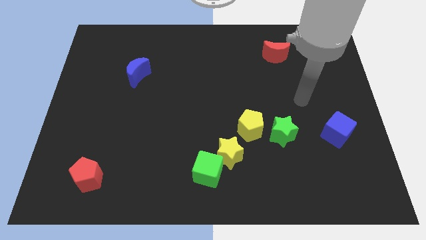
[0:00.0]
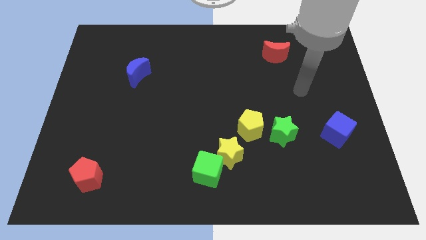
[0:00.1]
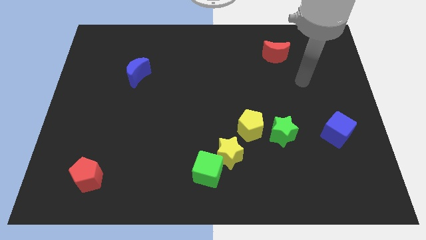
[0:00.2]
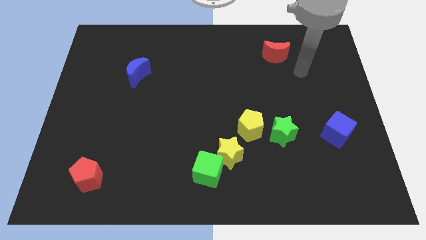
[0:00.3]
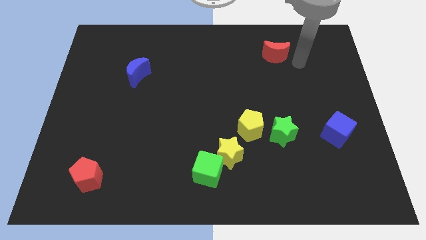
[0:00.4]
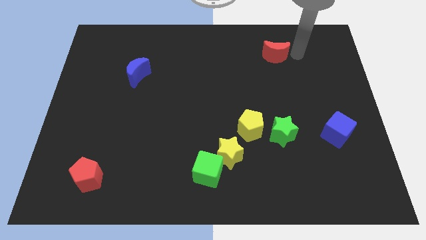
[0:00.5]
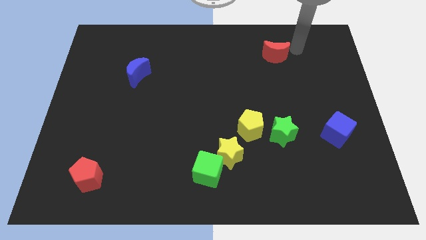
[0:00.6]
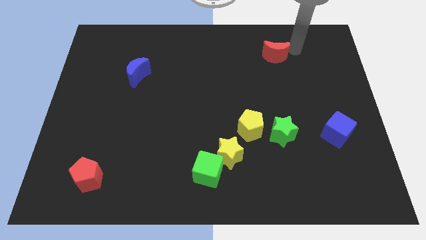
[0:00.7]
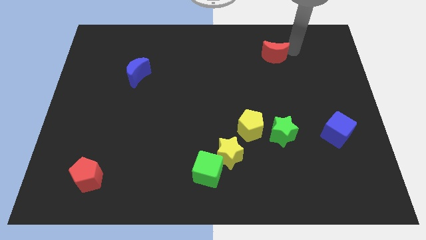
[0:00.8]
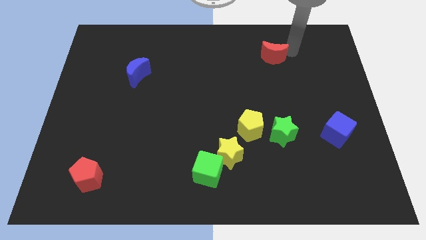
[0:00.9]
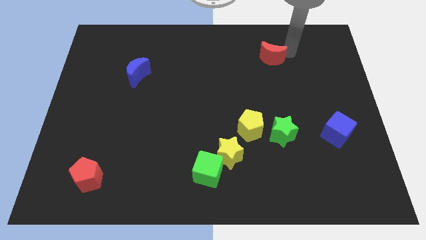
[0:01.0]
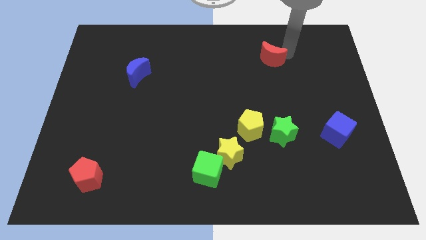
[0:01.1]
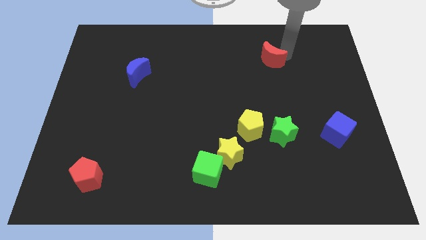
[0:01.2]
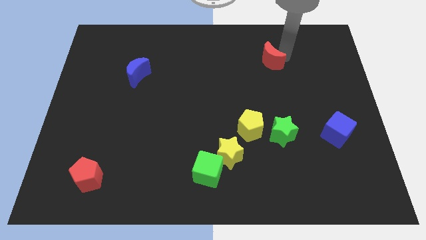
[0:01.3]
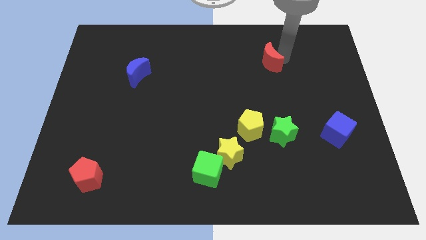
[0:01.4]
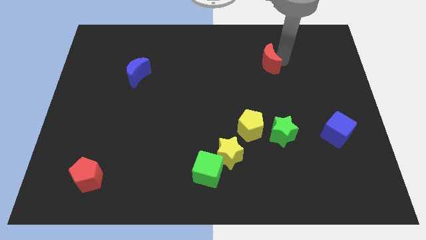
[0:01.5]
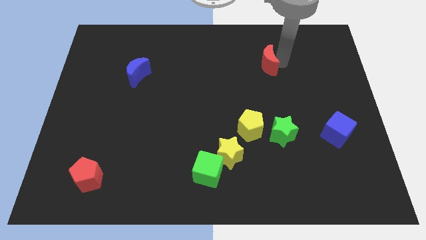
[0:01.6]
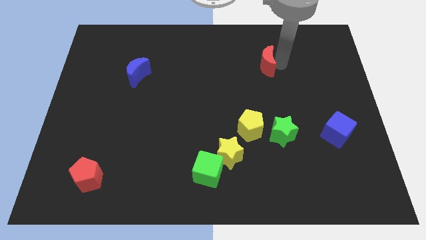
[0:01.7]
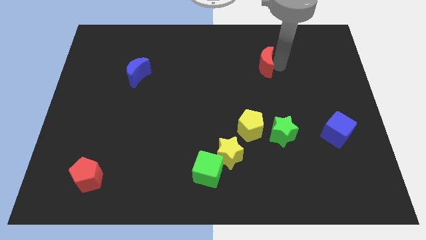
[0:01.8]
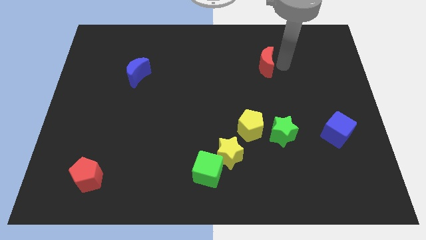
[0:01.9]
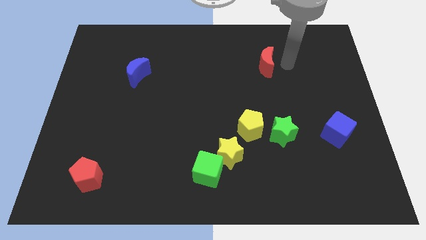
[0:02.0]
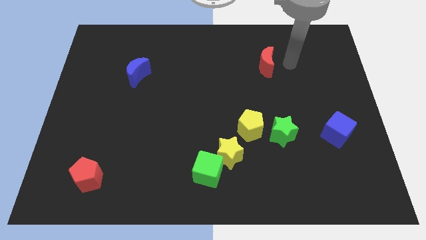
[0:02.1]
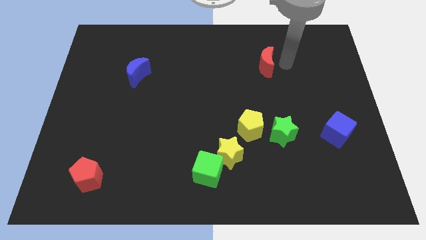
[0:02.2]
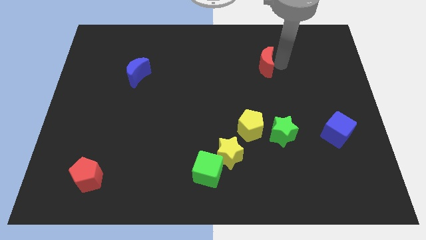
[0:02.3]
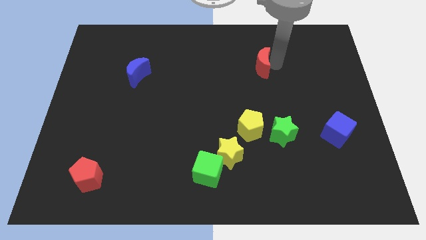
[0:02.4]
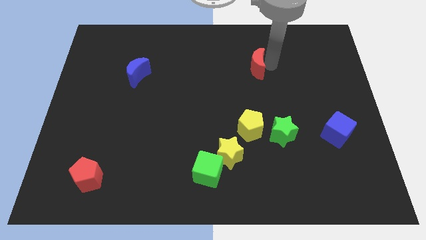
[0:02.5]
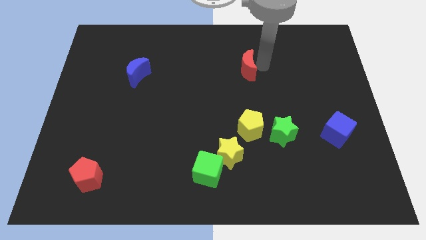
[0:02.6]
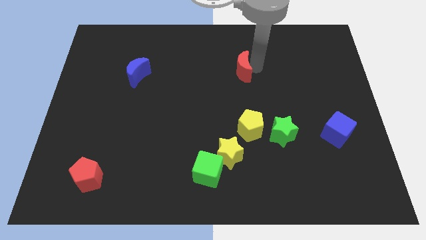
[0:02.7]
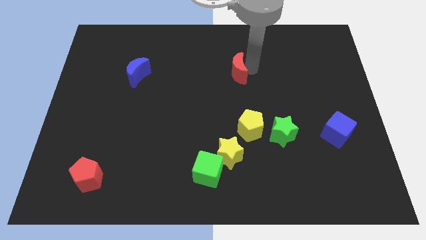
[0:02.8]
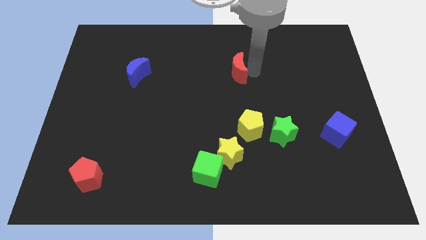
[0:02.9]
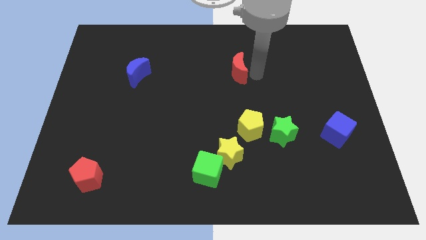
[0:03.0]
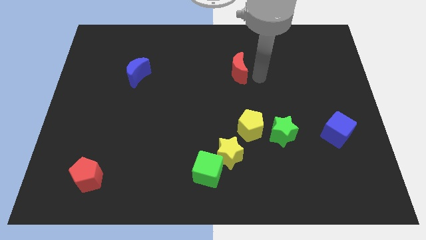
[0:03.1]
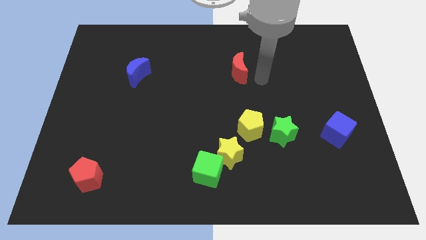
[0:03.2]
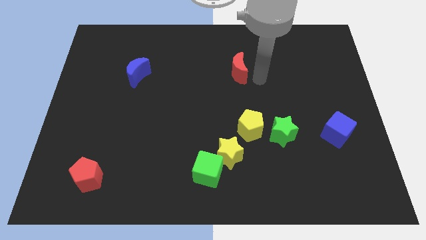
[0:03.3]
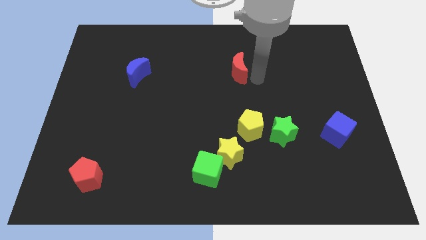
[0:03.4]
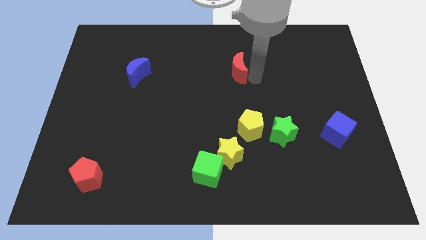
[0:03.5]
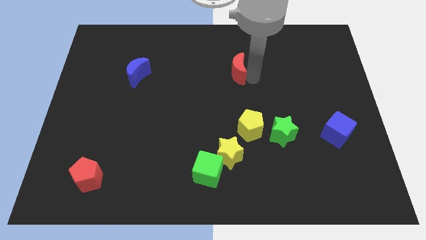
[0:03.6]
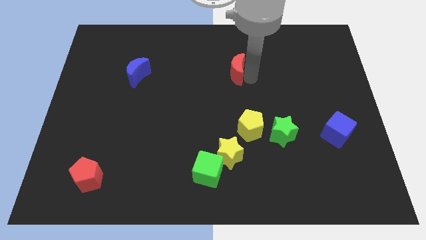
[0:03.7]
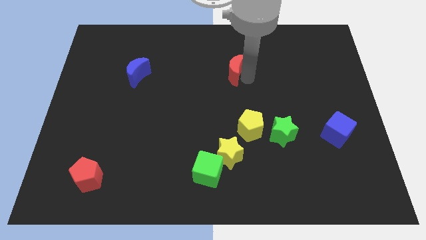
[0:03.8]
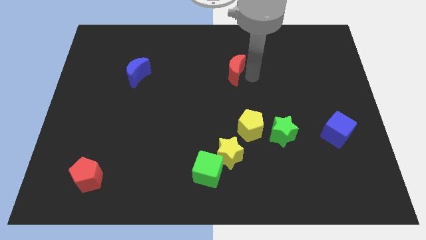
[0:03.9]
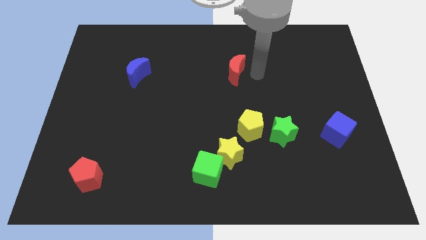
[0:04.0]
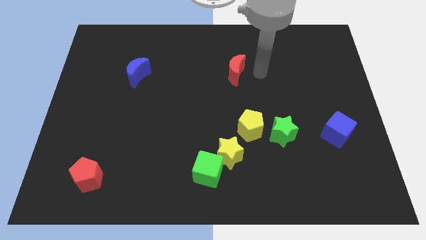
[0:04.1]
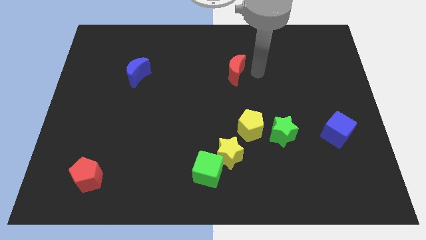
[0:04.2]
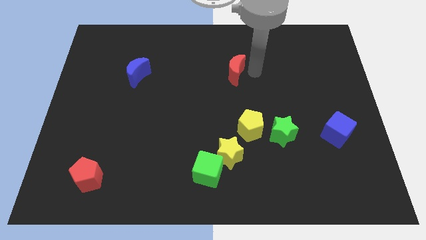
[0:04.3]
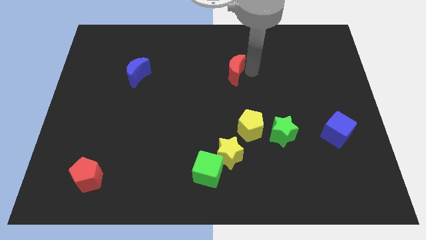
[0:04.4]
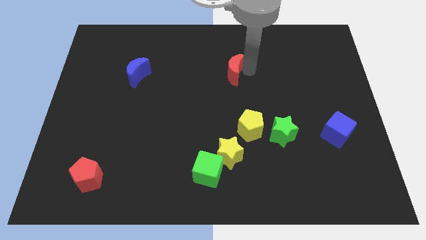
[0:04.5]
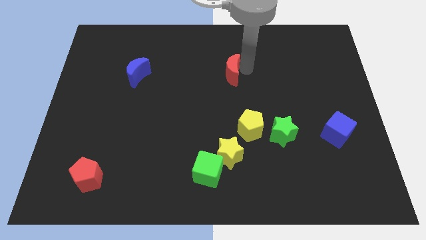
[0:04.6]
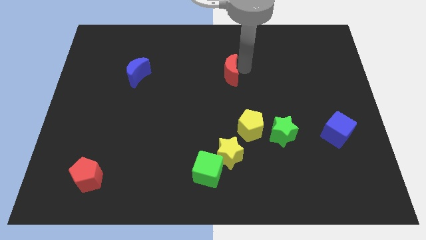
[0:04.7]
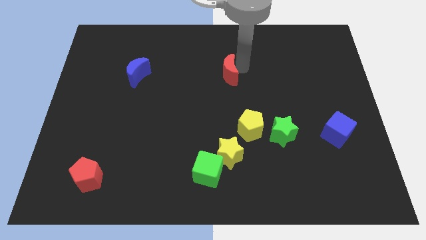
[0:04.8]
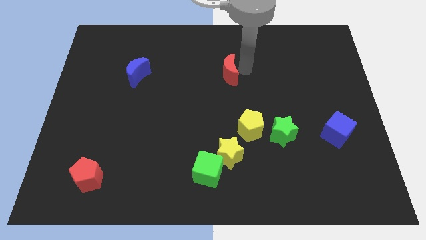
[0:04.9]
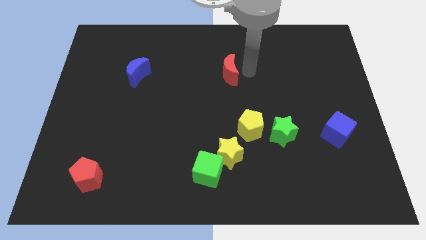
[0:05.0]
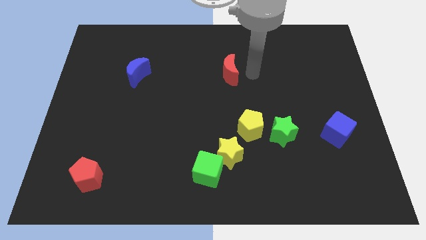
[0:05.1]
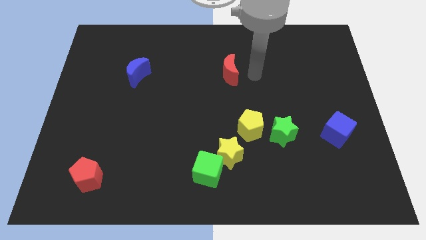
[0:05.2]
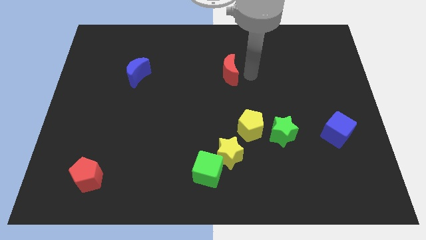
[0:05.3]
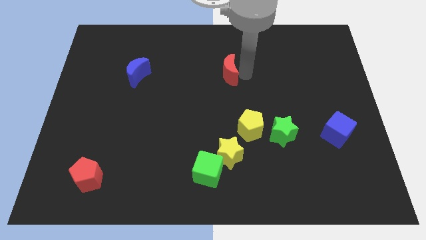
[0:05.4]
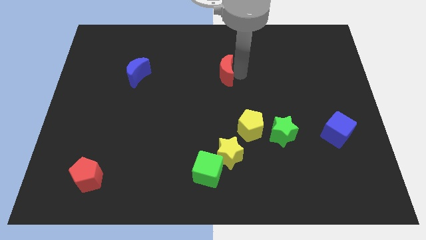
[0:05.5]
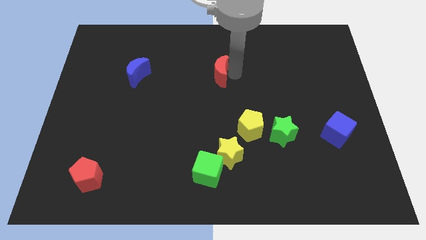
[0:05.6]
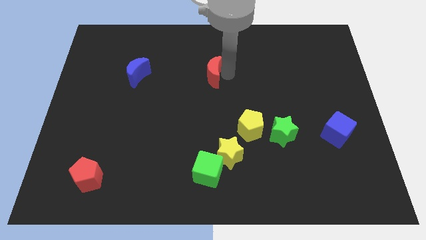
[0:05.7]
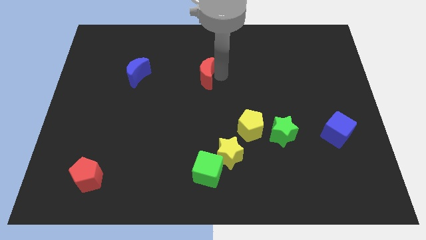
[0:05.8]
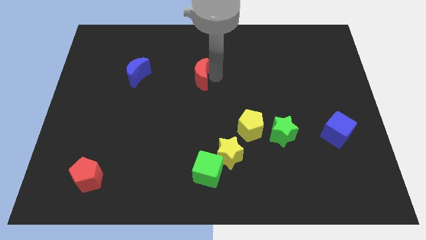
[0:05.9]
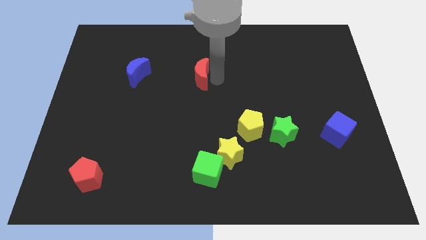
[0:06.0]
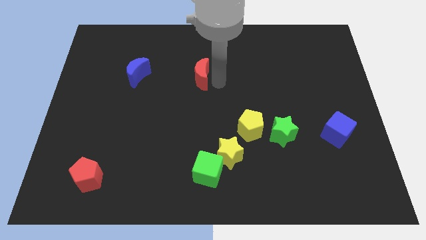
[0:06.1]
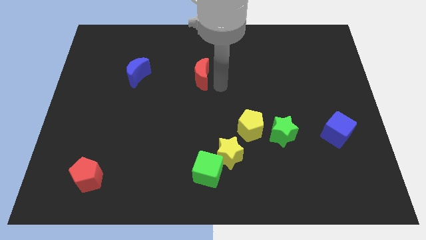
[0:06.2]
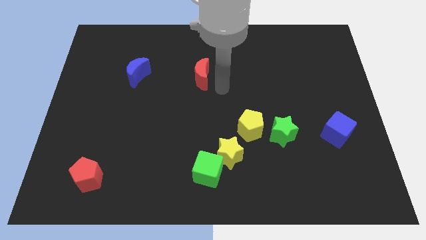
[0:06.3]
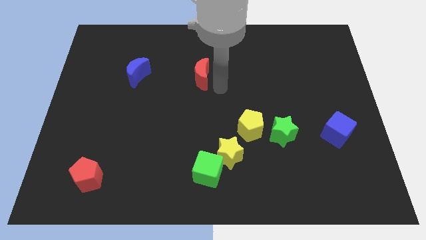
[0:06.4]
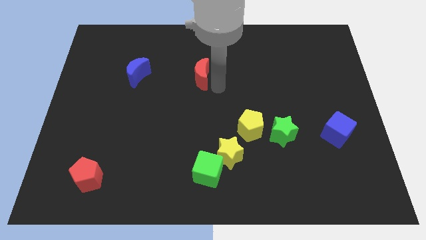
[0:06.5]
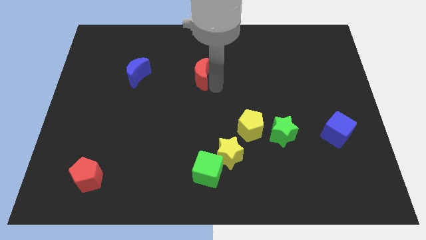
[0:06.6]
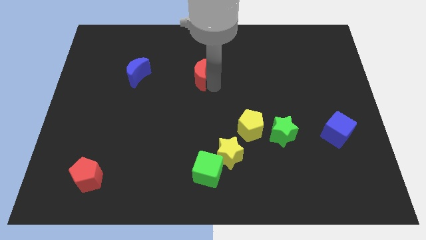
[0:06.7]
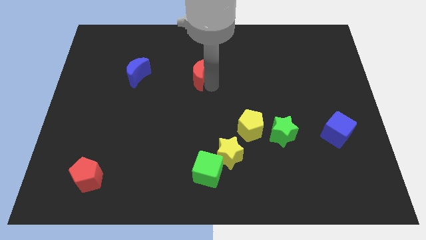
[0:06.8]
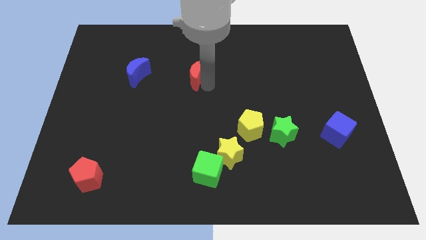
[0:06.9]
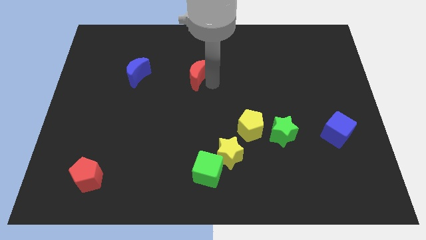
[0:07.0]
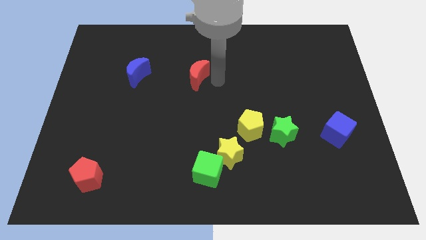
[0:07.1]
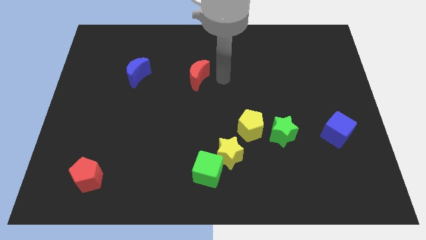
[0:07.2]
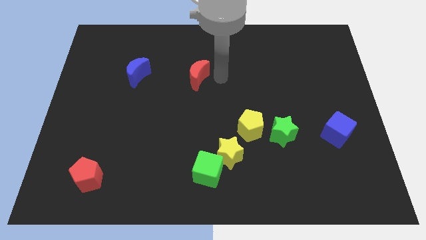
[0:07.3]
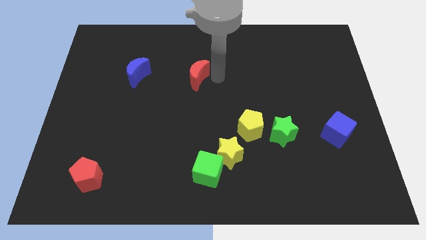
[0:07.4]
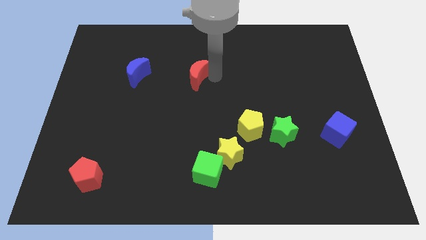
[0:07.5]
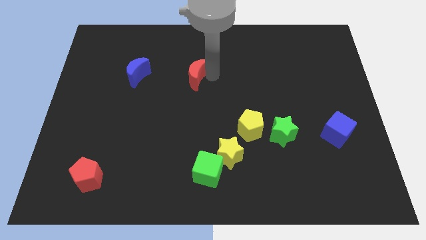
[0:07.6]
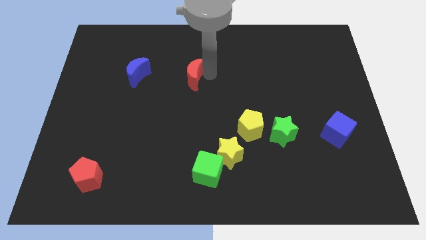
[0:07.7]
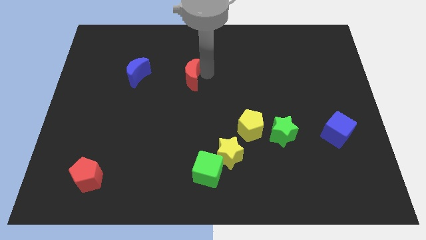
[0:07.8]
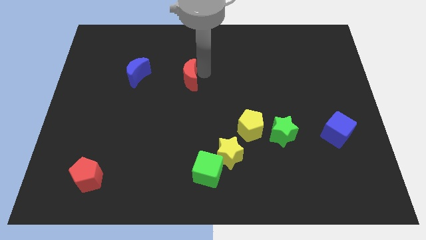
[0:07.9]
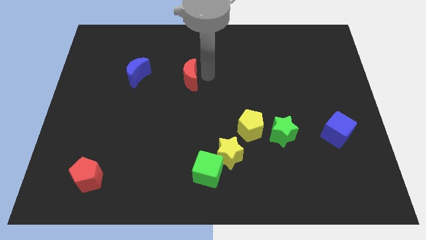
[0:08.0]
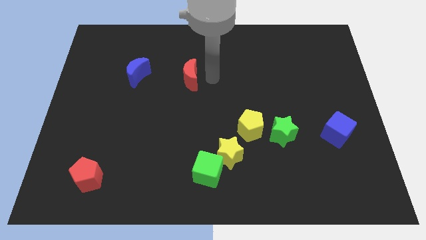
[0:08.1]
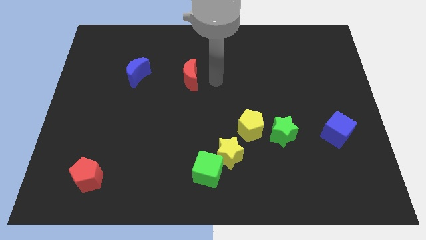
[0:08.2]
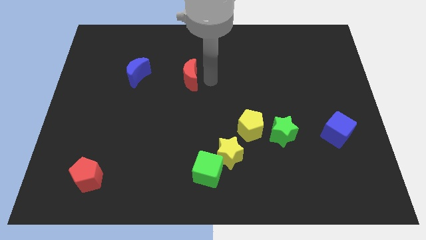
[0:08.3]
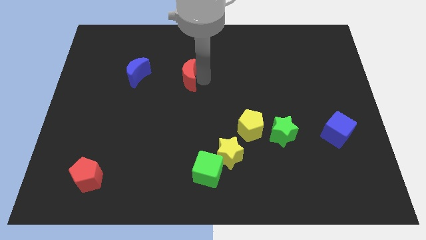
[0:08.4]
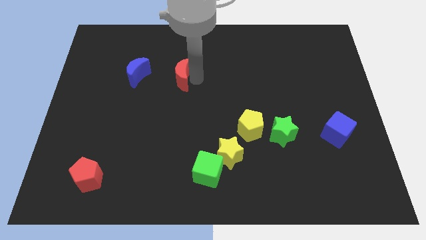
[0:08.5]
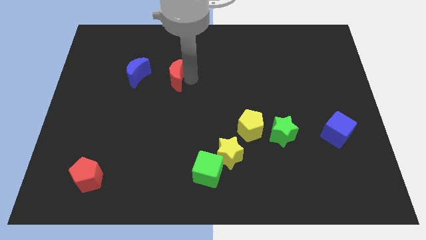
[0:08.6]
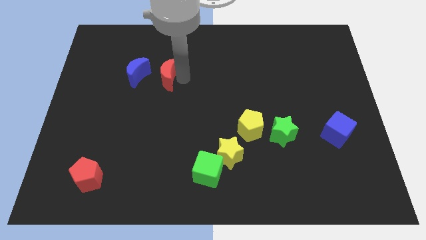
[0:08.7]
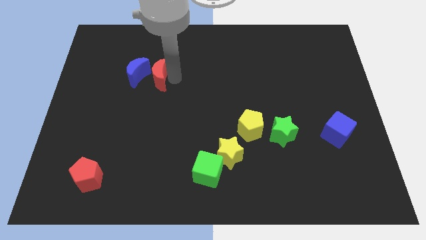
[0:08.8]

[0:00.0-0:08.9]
move the red moon towards the blue moon
